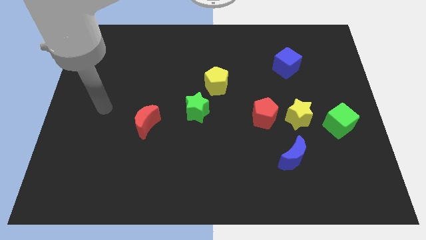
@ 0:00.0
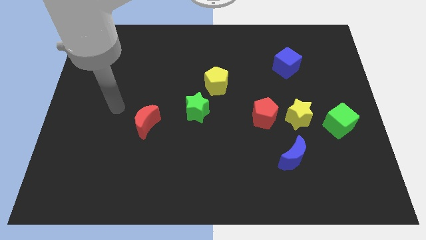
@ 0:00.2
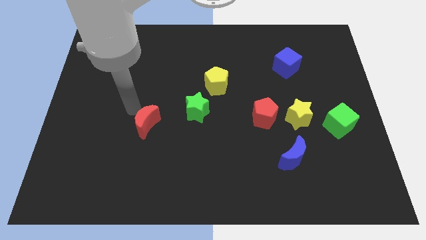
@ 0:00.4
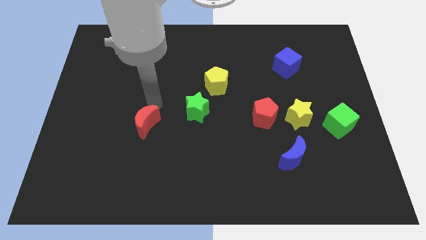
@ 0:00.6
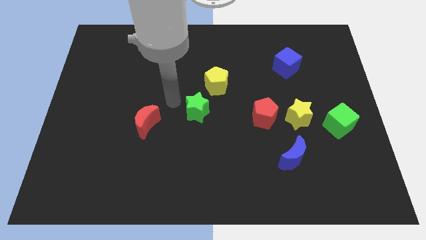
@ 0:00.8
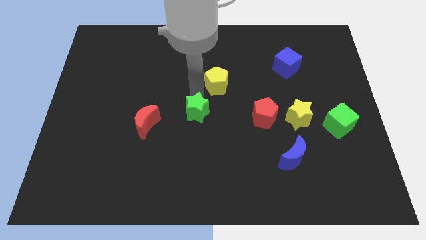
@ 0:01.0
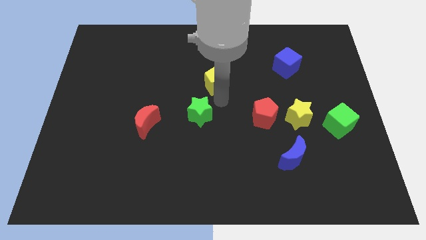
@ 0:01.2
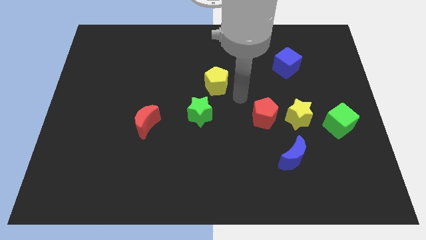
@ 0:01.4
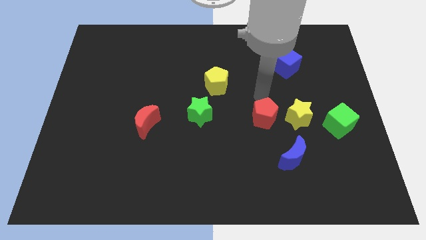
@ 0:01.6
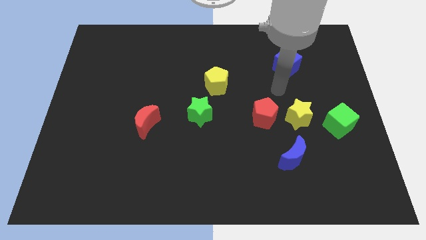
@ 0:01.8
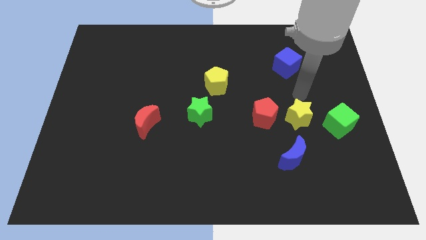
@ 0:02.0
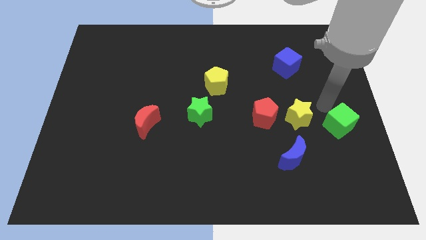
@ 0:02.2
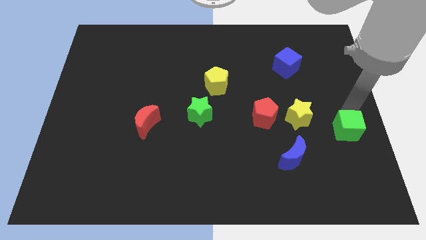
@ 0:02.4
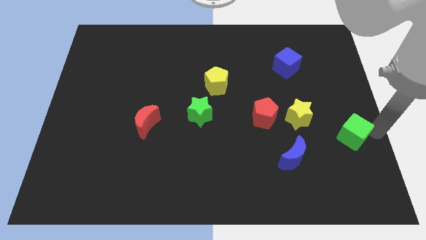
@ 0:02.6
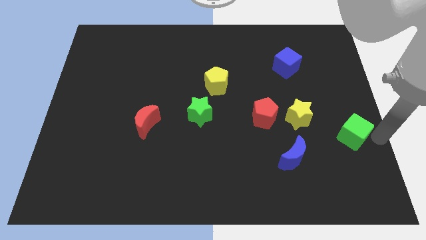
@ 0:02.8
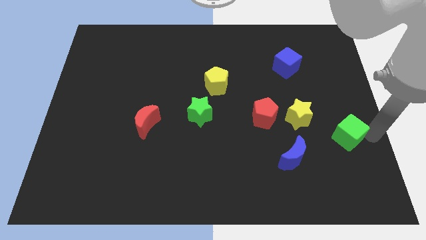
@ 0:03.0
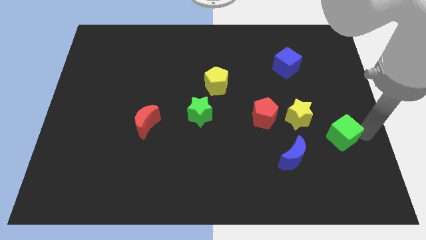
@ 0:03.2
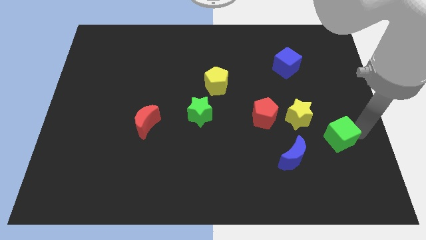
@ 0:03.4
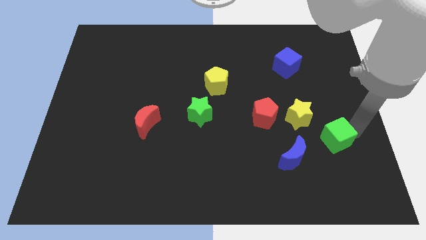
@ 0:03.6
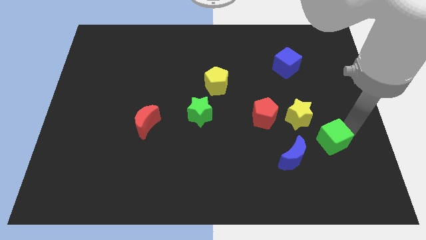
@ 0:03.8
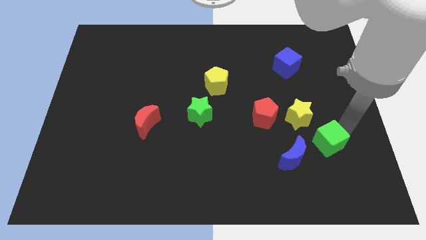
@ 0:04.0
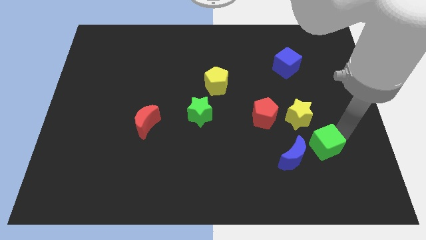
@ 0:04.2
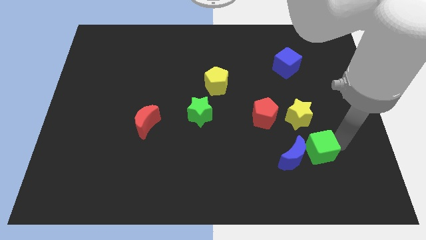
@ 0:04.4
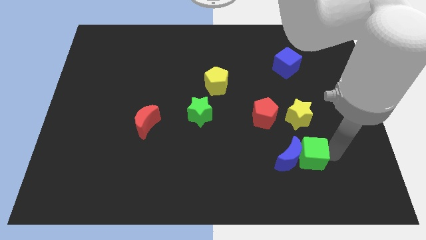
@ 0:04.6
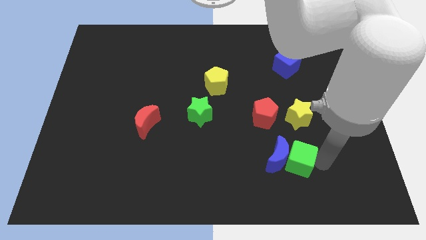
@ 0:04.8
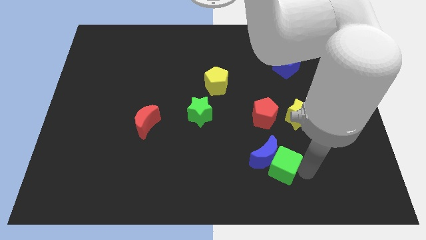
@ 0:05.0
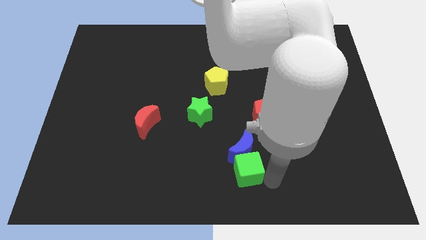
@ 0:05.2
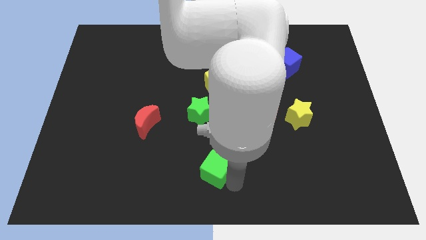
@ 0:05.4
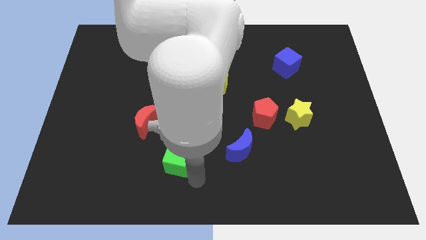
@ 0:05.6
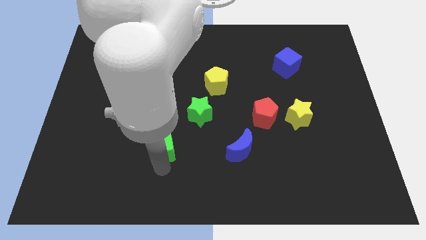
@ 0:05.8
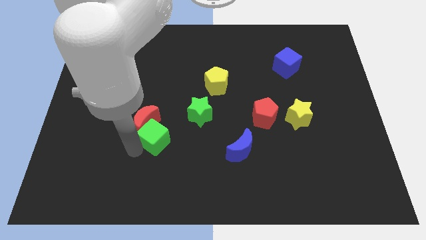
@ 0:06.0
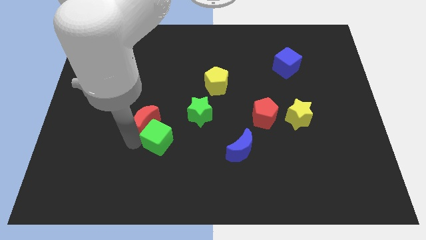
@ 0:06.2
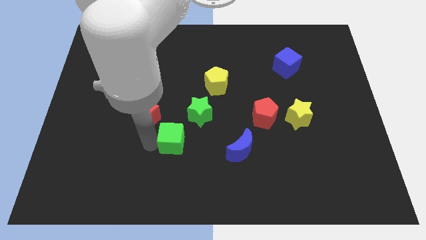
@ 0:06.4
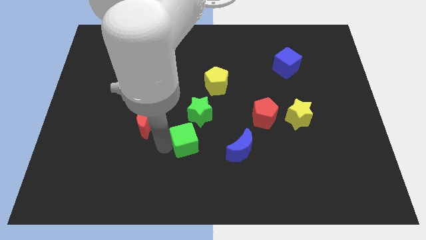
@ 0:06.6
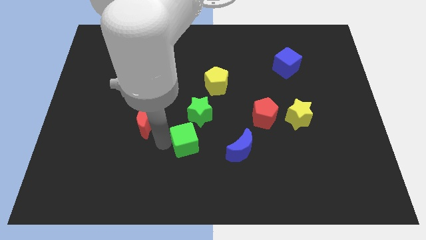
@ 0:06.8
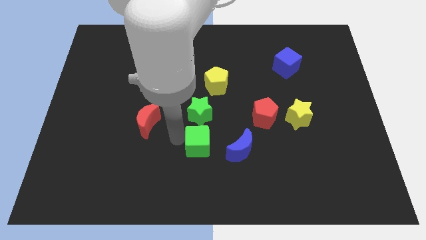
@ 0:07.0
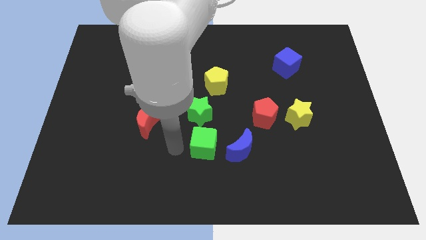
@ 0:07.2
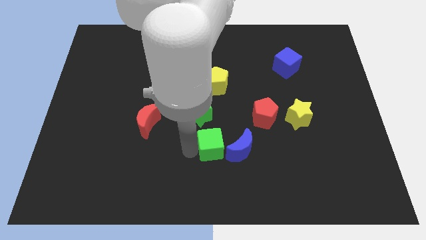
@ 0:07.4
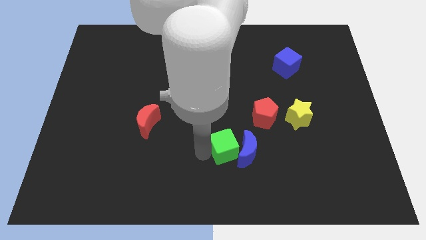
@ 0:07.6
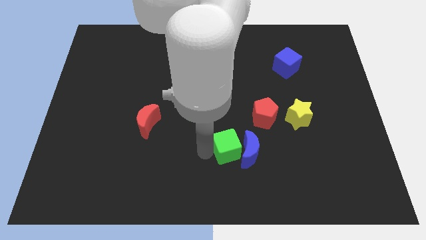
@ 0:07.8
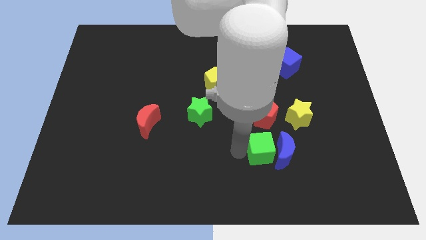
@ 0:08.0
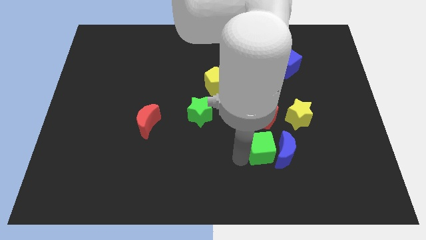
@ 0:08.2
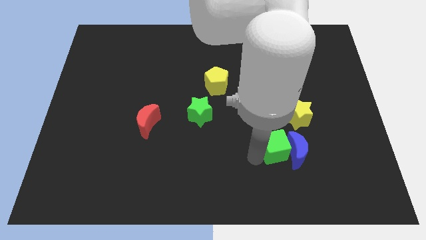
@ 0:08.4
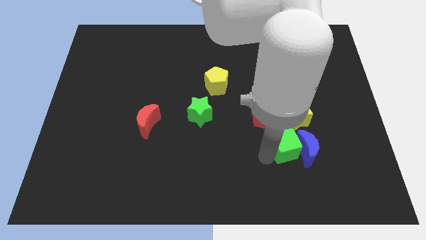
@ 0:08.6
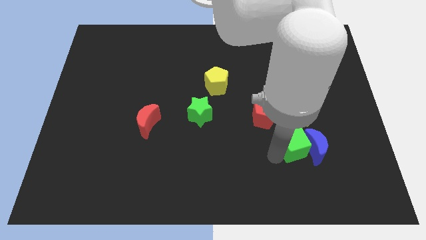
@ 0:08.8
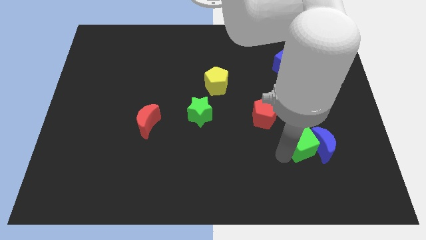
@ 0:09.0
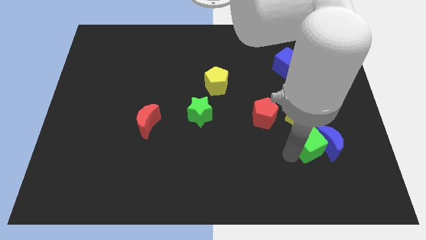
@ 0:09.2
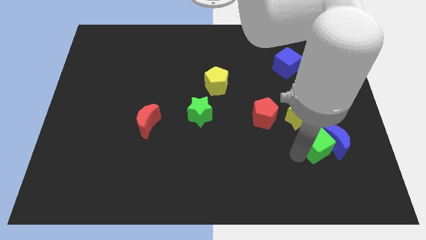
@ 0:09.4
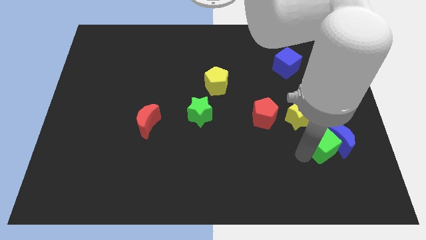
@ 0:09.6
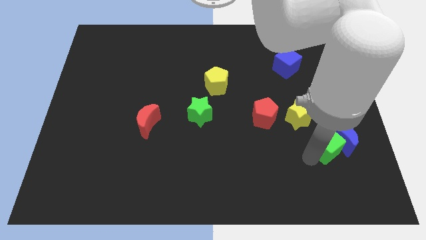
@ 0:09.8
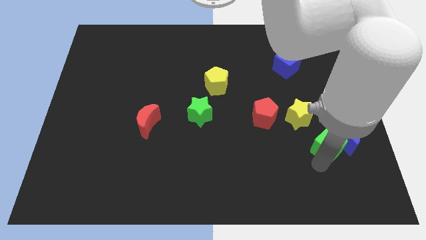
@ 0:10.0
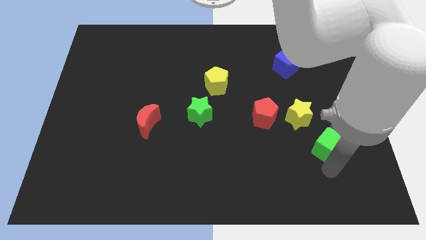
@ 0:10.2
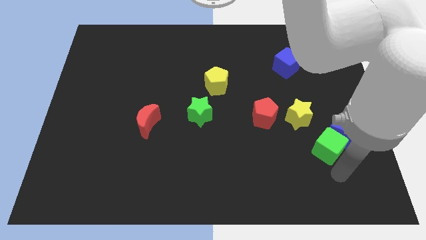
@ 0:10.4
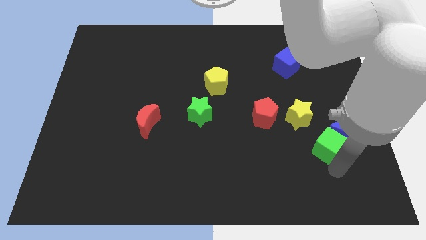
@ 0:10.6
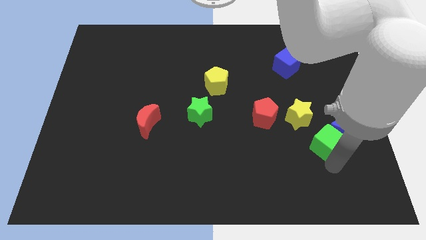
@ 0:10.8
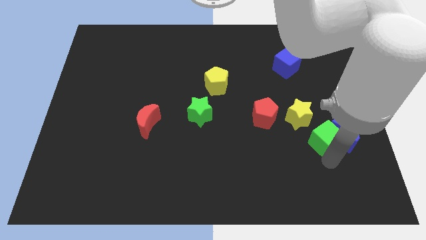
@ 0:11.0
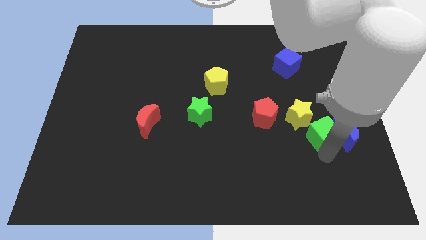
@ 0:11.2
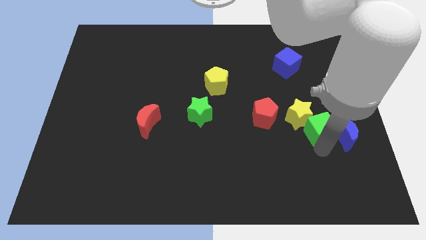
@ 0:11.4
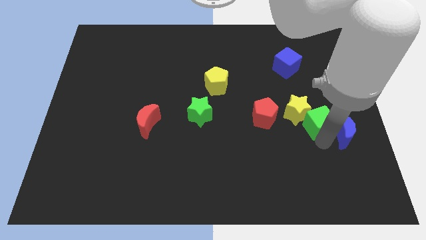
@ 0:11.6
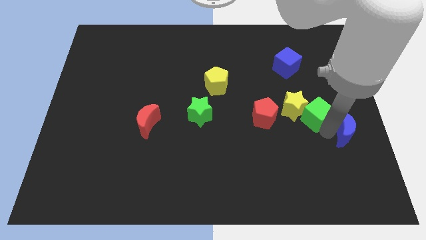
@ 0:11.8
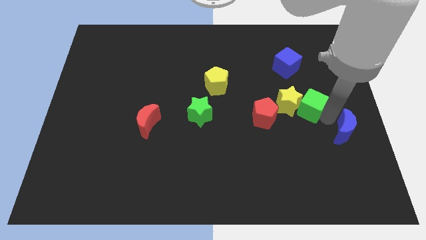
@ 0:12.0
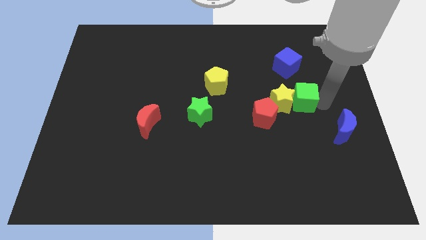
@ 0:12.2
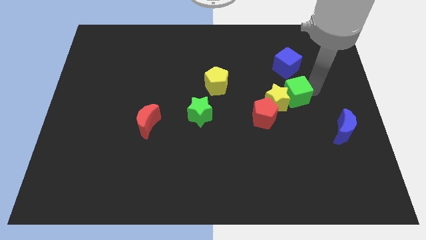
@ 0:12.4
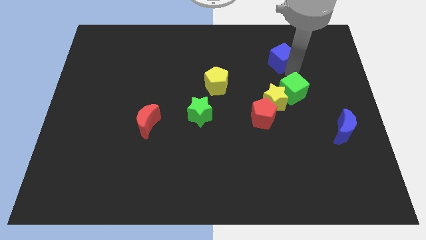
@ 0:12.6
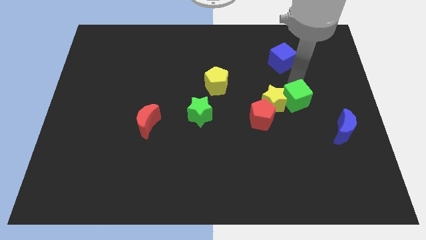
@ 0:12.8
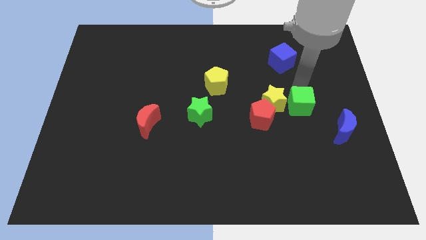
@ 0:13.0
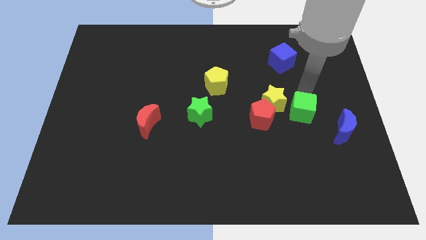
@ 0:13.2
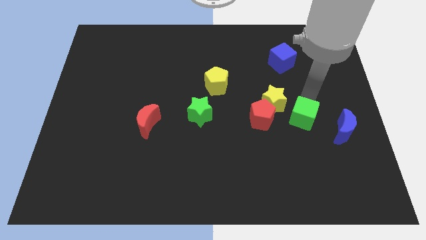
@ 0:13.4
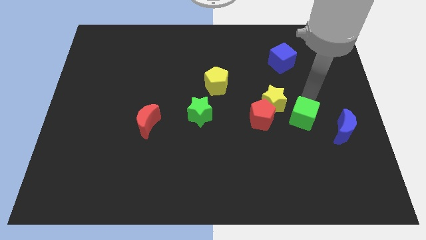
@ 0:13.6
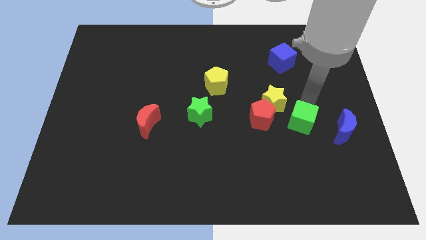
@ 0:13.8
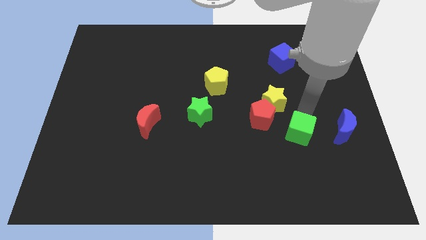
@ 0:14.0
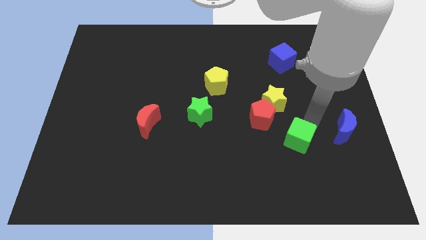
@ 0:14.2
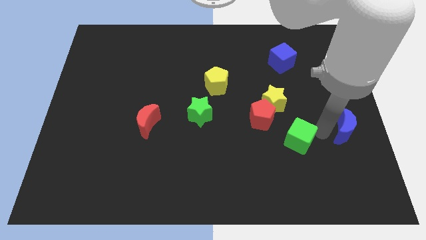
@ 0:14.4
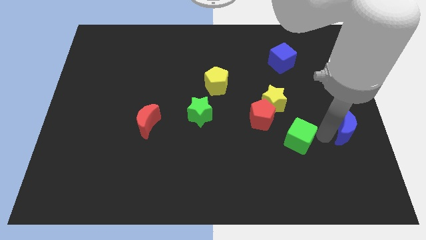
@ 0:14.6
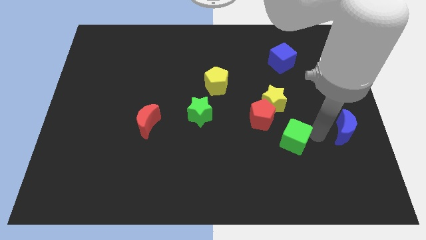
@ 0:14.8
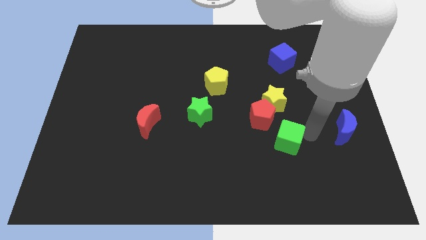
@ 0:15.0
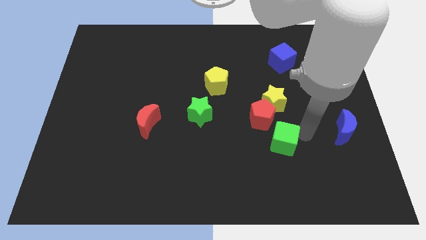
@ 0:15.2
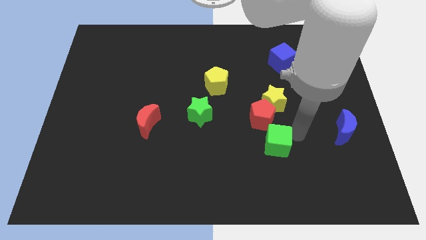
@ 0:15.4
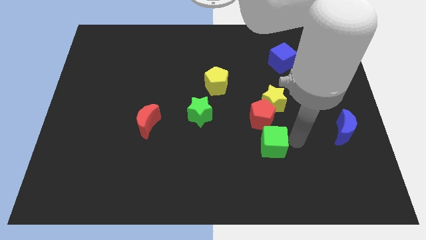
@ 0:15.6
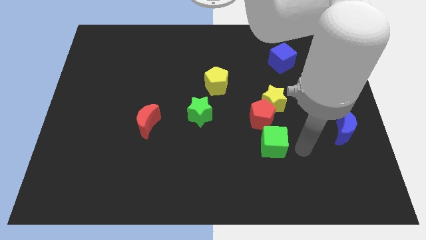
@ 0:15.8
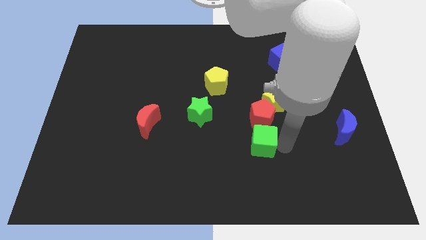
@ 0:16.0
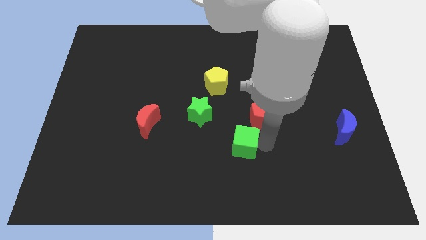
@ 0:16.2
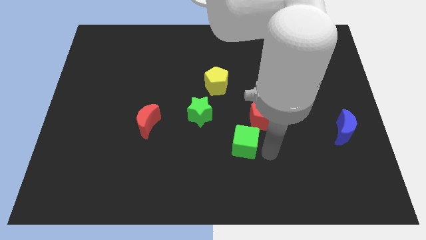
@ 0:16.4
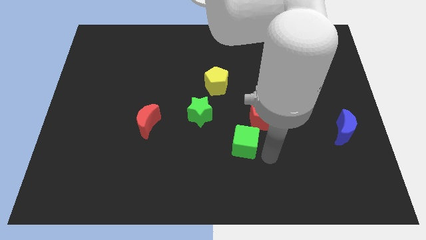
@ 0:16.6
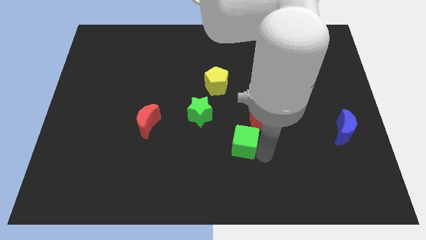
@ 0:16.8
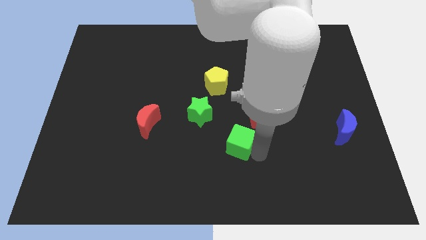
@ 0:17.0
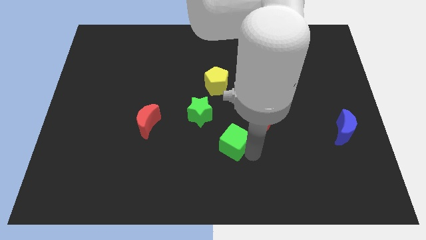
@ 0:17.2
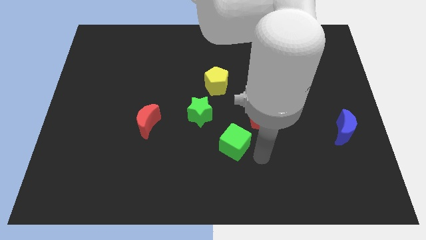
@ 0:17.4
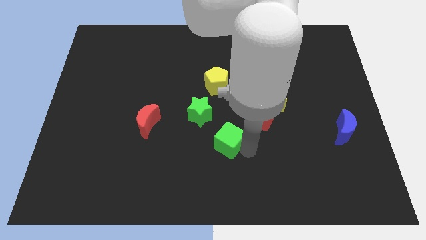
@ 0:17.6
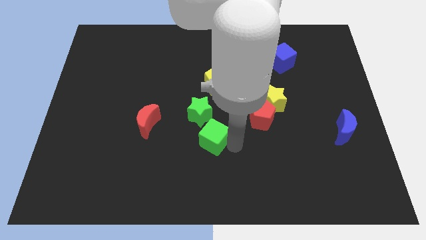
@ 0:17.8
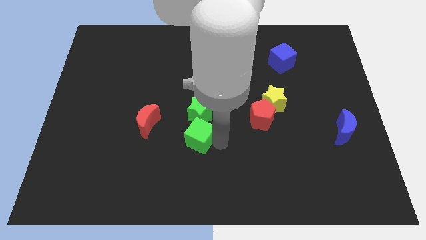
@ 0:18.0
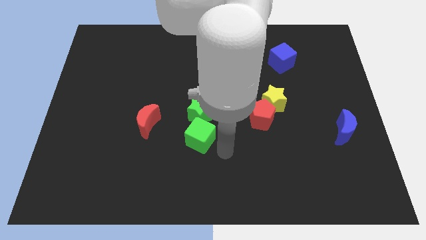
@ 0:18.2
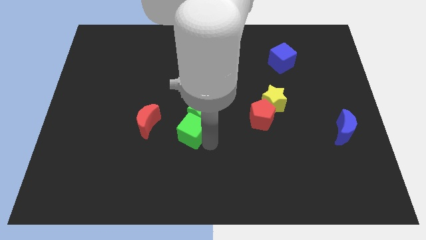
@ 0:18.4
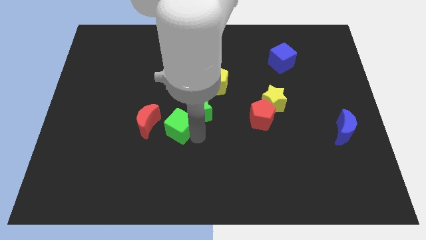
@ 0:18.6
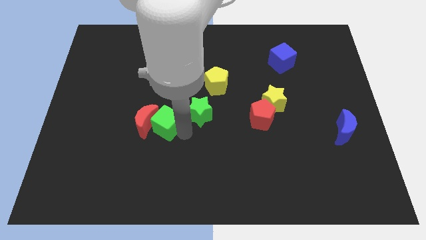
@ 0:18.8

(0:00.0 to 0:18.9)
put the green cube diagonally up and to the right of the red moon
